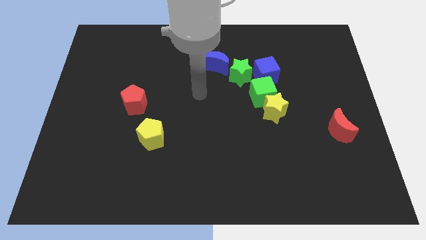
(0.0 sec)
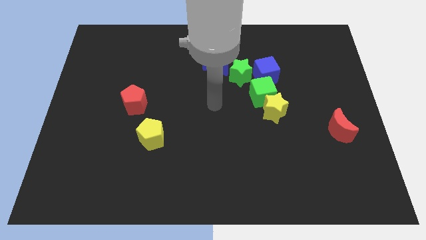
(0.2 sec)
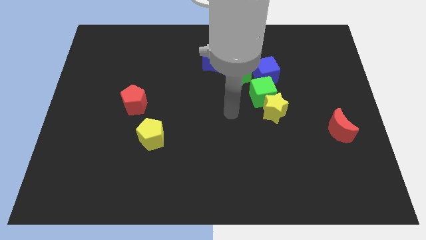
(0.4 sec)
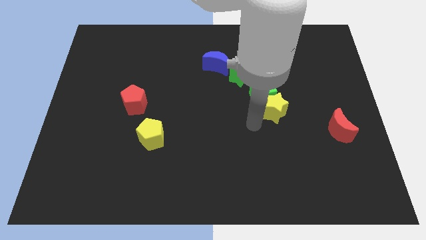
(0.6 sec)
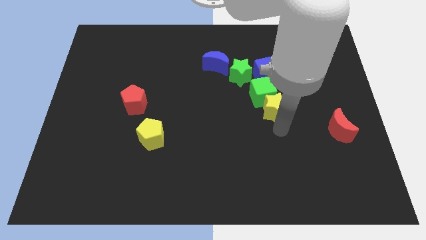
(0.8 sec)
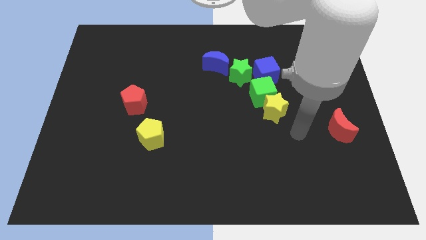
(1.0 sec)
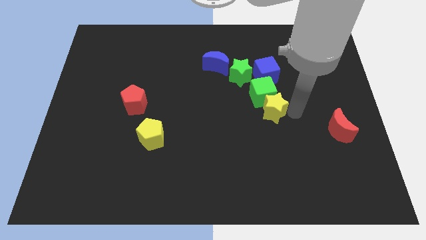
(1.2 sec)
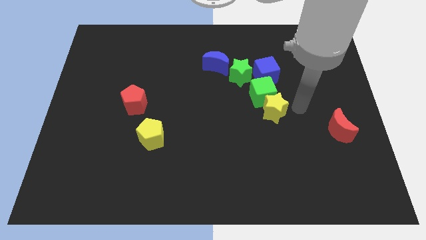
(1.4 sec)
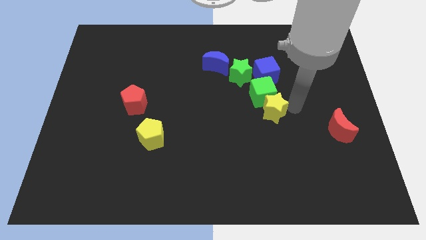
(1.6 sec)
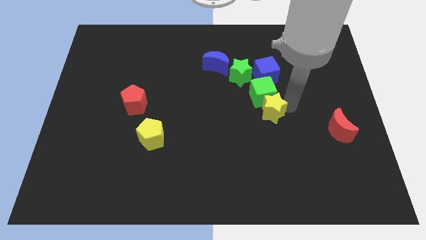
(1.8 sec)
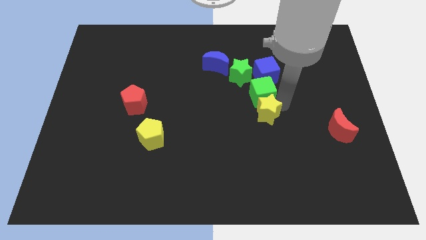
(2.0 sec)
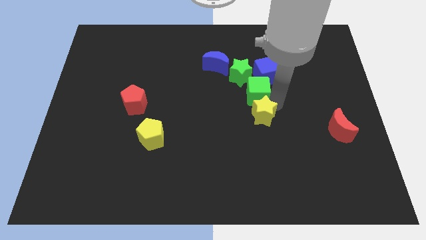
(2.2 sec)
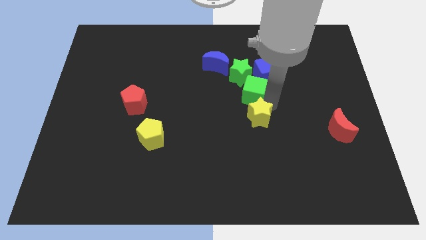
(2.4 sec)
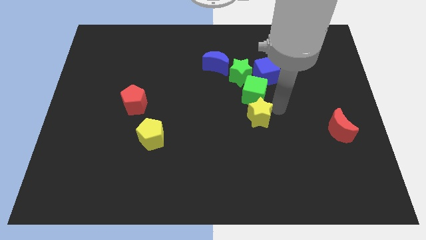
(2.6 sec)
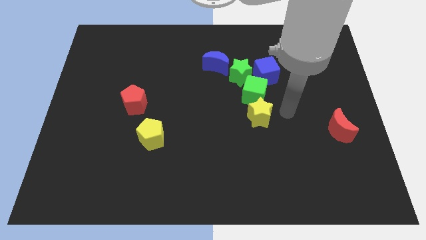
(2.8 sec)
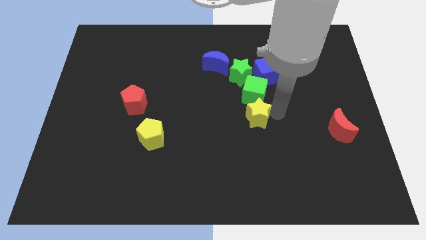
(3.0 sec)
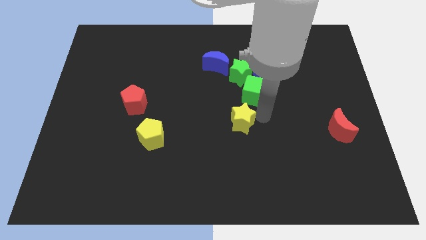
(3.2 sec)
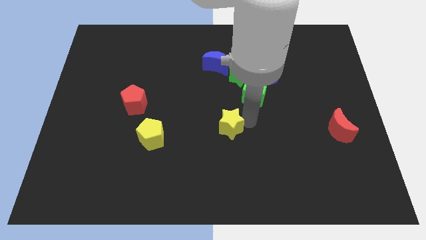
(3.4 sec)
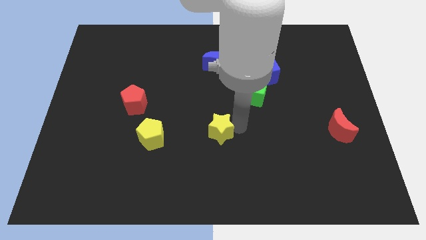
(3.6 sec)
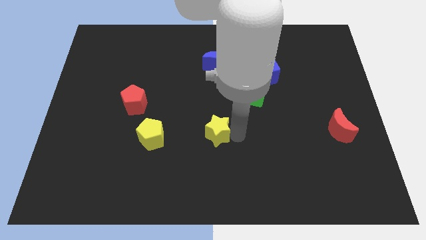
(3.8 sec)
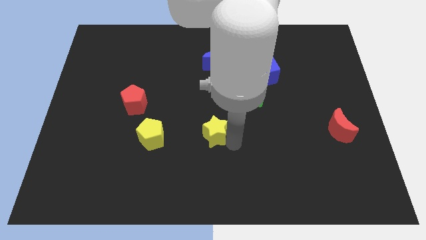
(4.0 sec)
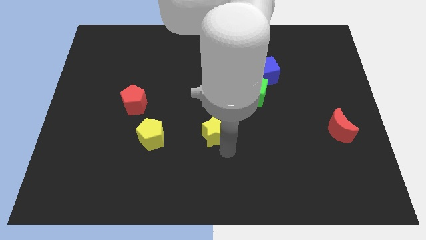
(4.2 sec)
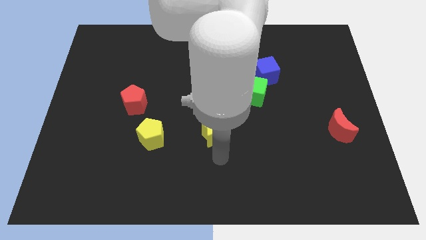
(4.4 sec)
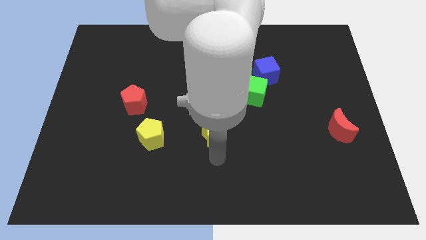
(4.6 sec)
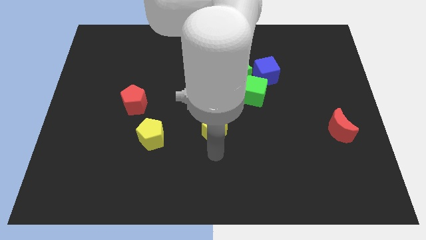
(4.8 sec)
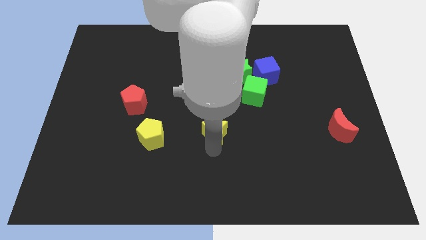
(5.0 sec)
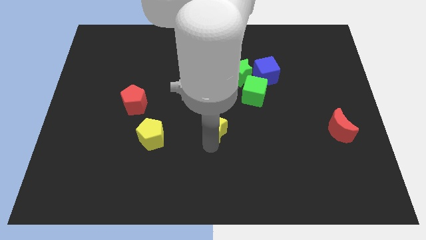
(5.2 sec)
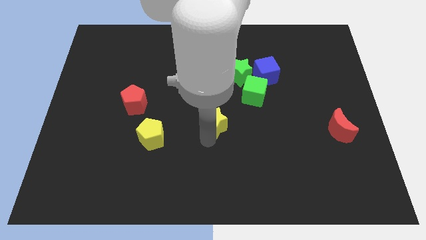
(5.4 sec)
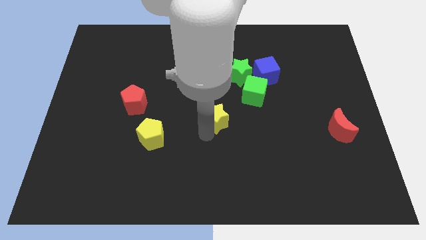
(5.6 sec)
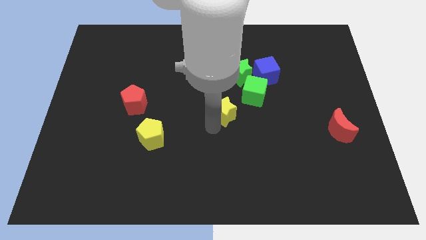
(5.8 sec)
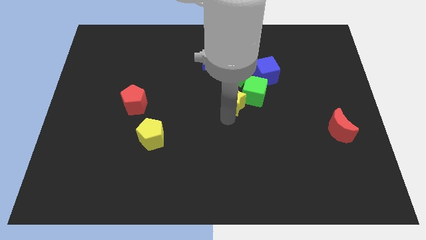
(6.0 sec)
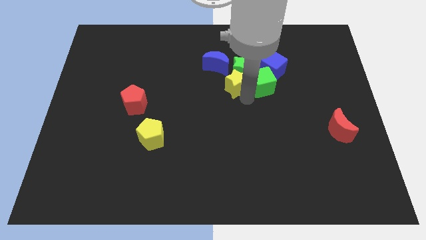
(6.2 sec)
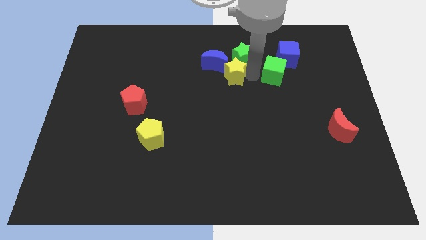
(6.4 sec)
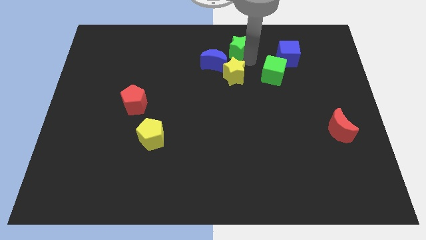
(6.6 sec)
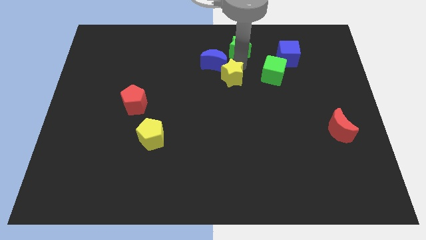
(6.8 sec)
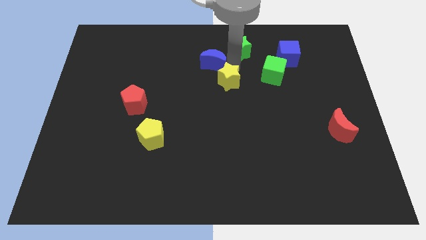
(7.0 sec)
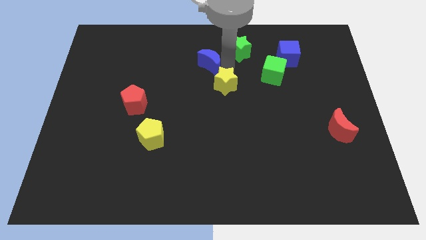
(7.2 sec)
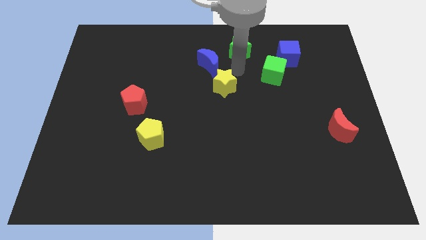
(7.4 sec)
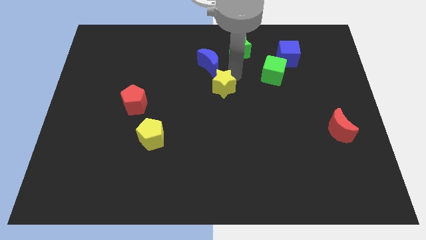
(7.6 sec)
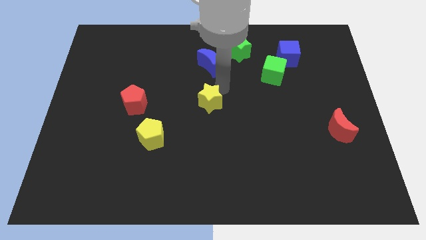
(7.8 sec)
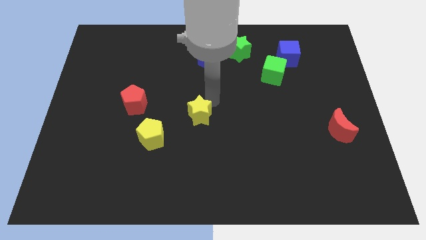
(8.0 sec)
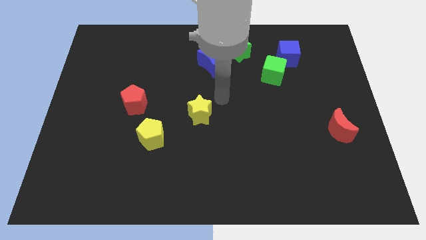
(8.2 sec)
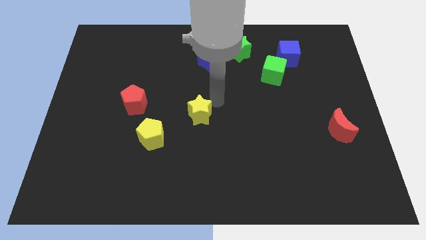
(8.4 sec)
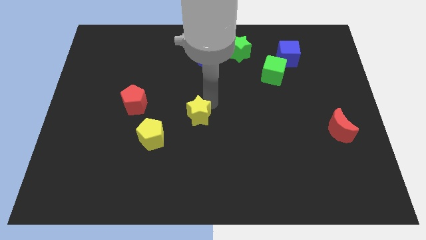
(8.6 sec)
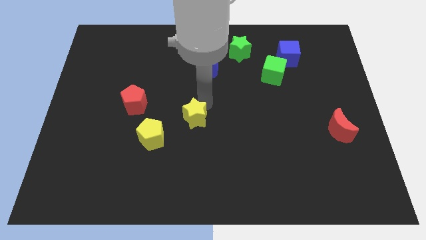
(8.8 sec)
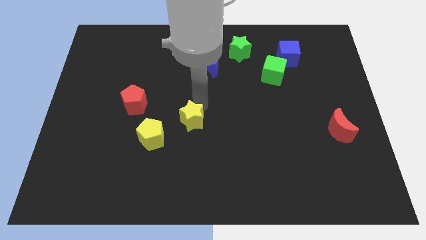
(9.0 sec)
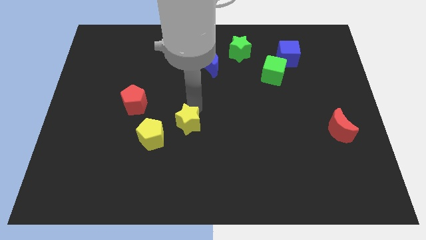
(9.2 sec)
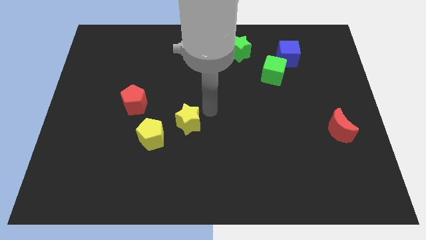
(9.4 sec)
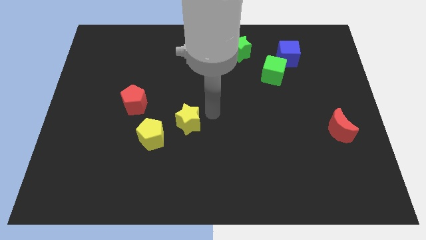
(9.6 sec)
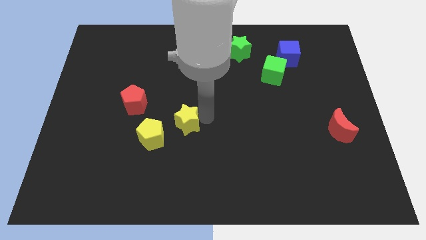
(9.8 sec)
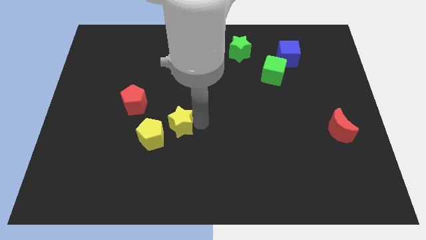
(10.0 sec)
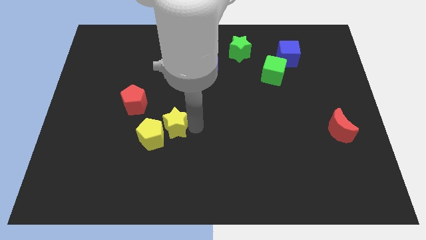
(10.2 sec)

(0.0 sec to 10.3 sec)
slide the yellow star to the yellow pentagon

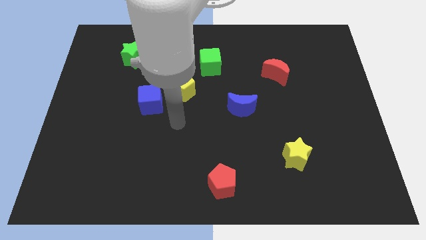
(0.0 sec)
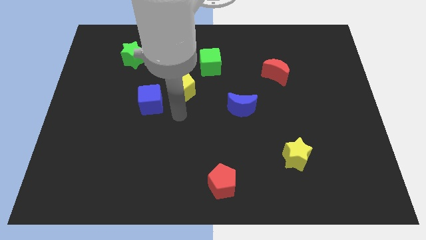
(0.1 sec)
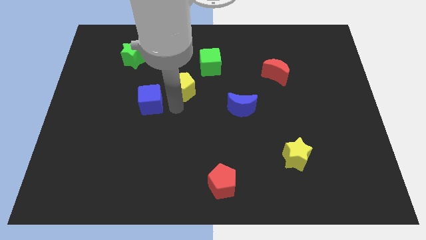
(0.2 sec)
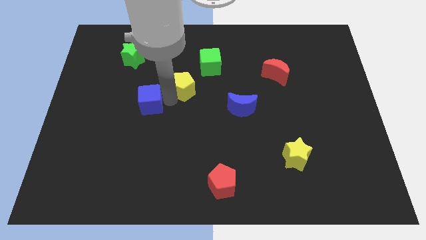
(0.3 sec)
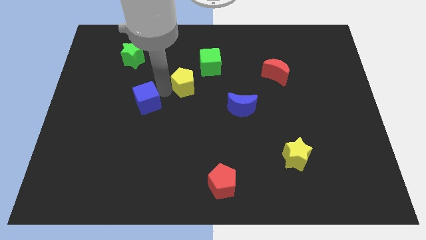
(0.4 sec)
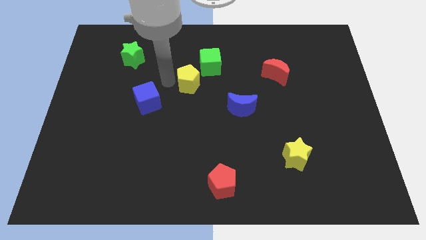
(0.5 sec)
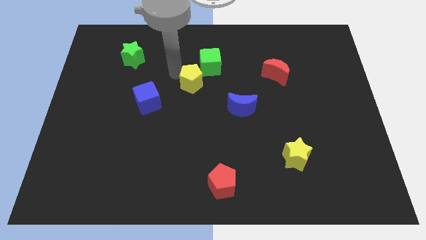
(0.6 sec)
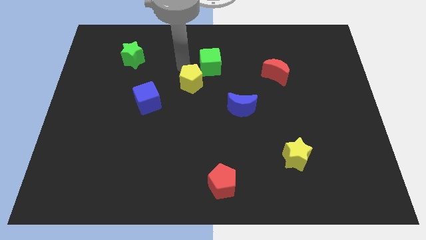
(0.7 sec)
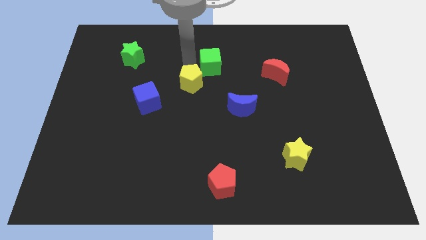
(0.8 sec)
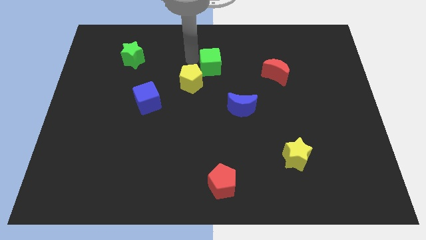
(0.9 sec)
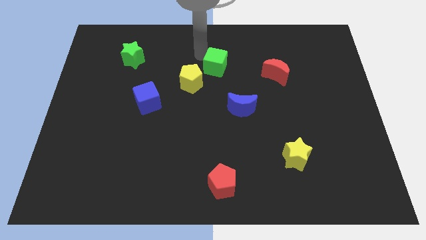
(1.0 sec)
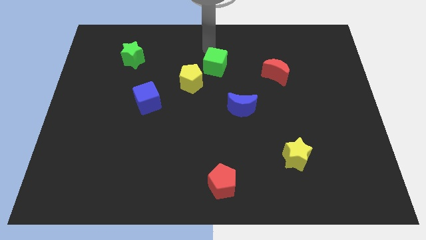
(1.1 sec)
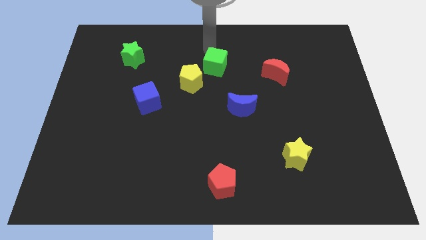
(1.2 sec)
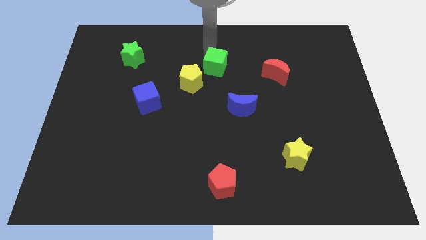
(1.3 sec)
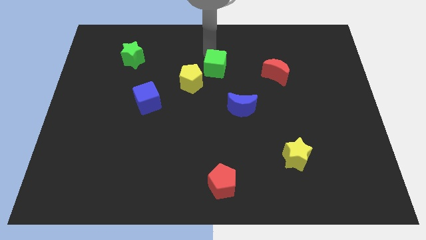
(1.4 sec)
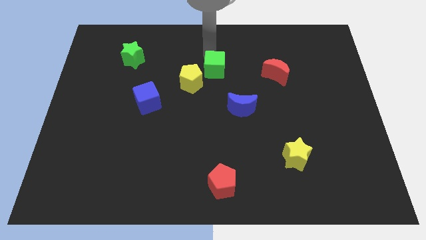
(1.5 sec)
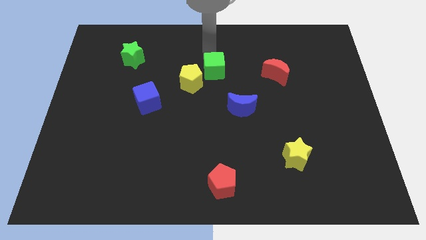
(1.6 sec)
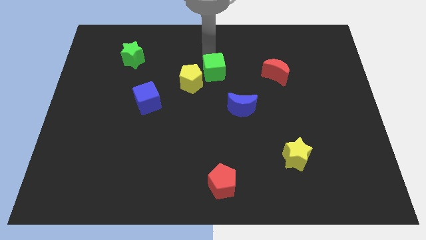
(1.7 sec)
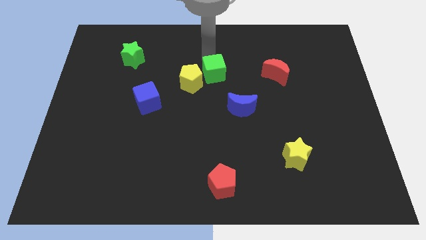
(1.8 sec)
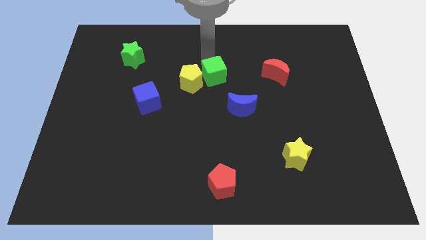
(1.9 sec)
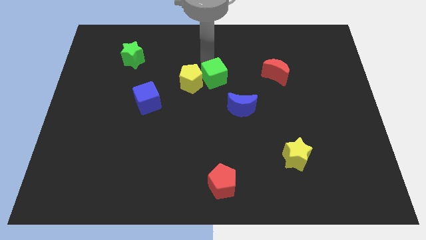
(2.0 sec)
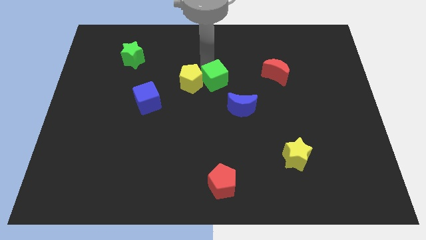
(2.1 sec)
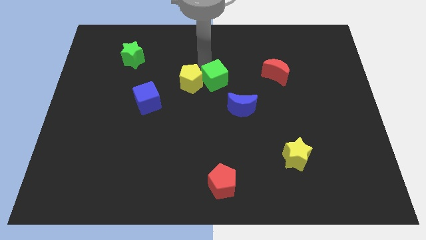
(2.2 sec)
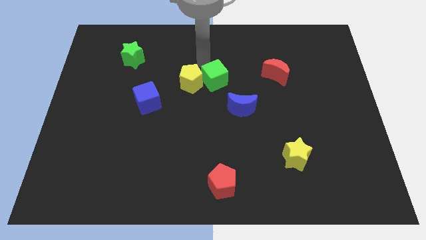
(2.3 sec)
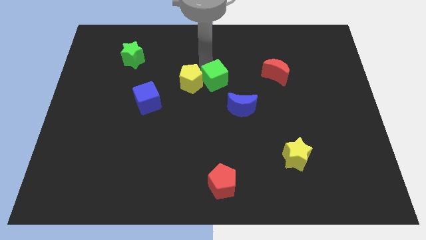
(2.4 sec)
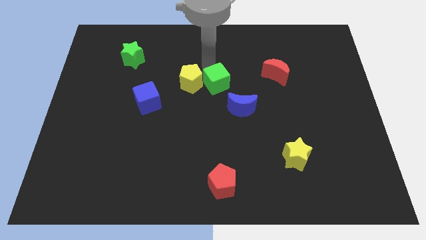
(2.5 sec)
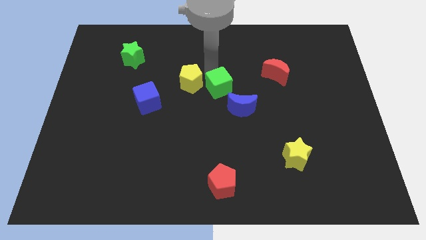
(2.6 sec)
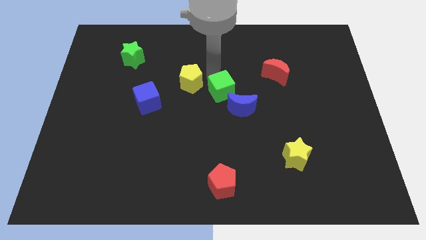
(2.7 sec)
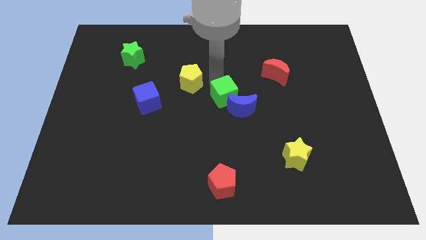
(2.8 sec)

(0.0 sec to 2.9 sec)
slide the green cube to the blue moon
